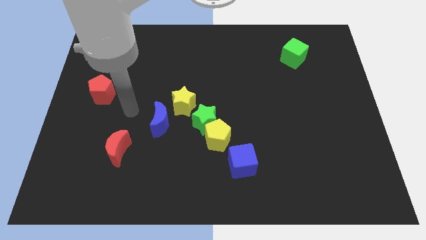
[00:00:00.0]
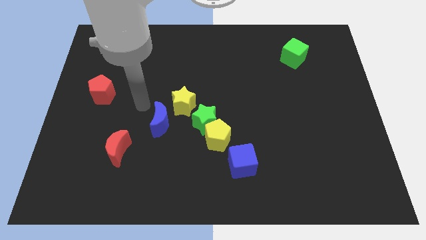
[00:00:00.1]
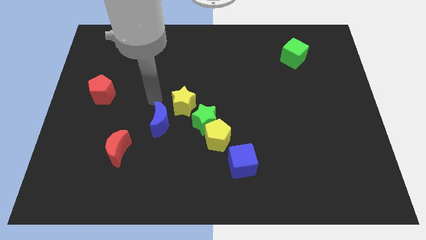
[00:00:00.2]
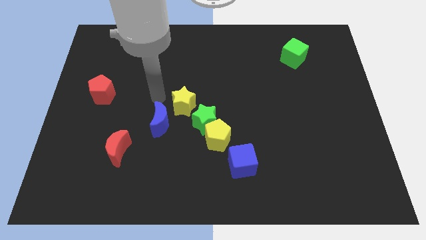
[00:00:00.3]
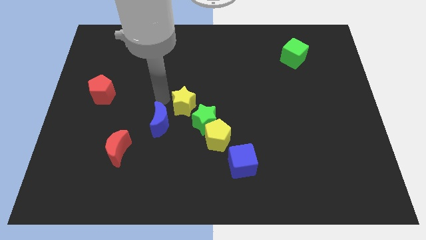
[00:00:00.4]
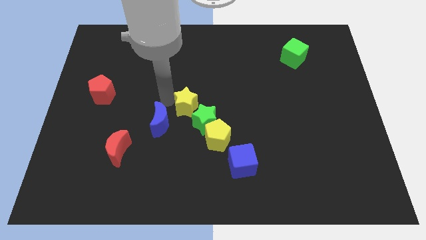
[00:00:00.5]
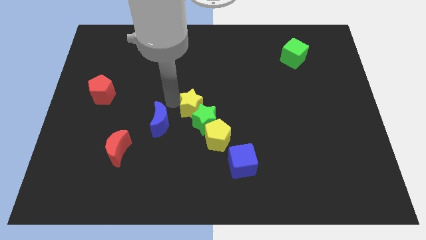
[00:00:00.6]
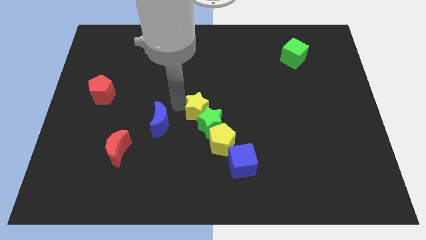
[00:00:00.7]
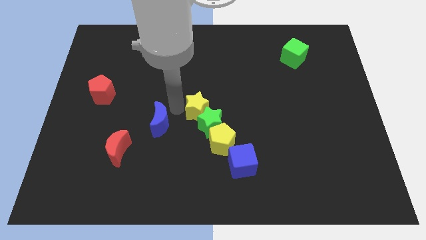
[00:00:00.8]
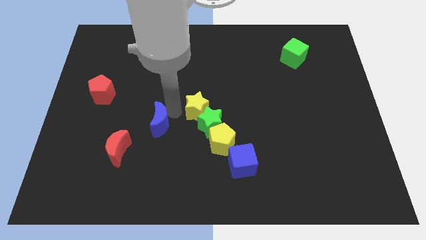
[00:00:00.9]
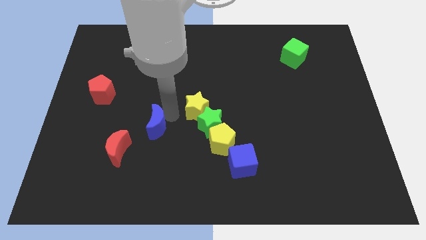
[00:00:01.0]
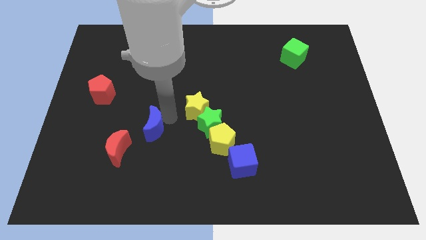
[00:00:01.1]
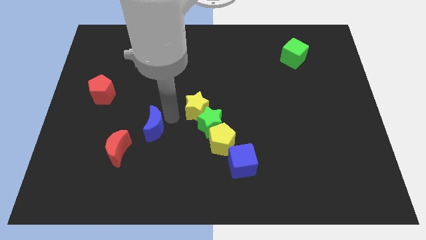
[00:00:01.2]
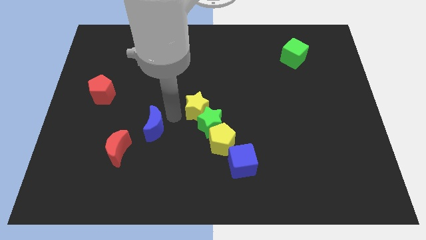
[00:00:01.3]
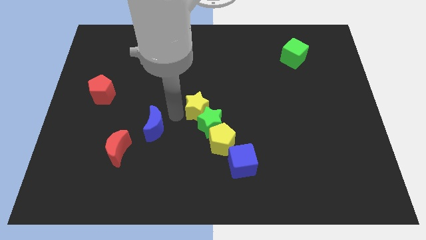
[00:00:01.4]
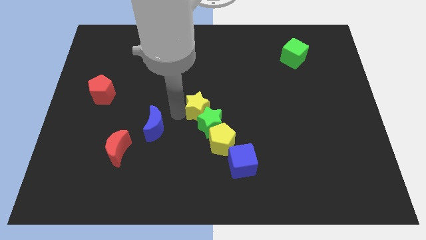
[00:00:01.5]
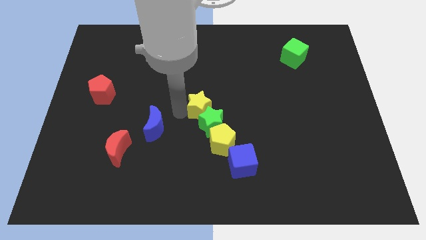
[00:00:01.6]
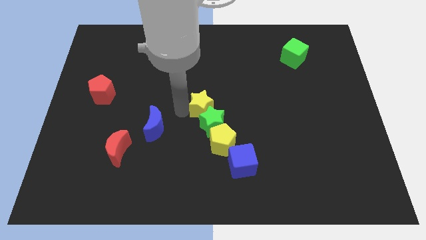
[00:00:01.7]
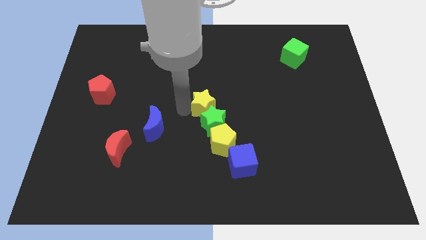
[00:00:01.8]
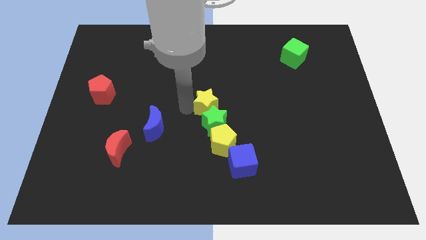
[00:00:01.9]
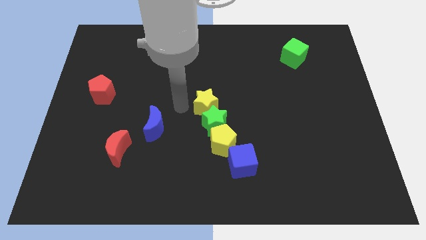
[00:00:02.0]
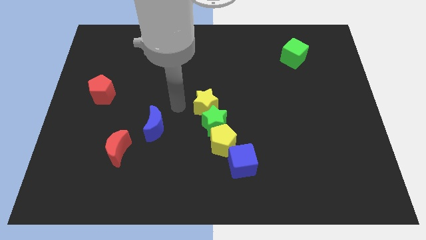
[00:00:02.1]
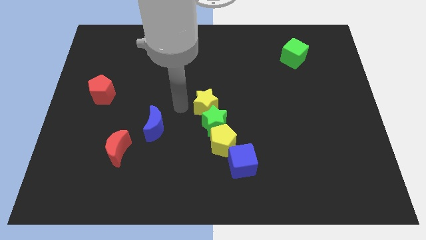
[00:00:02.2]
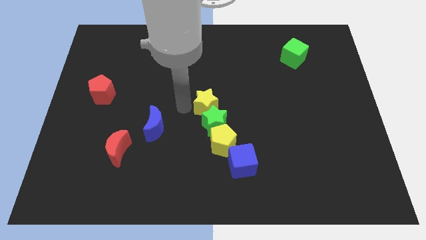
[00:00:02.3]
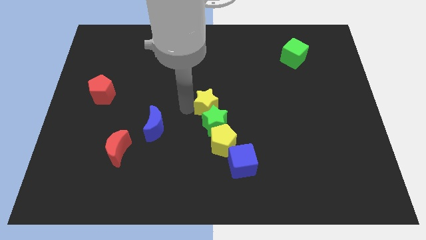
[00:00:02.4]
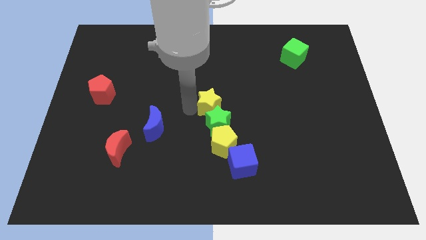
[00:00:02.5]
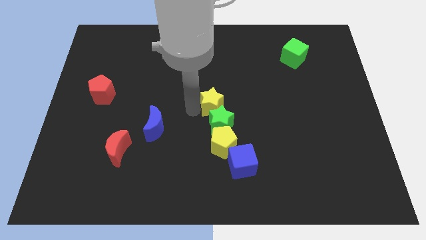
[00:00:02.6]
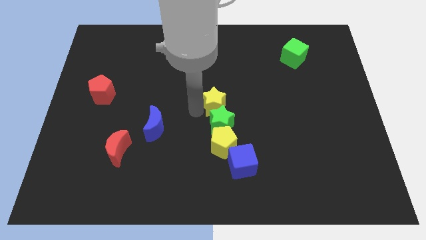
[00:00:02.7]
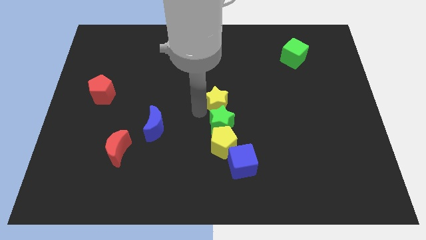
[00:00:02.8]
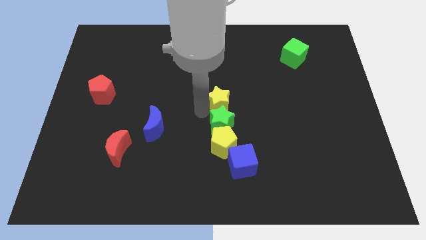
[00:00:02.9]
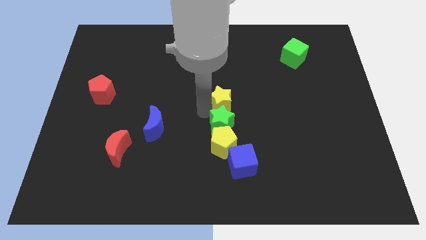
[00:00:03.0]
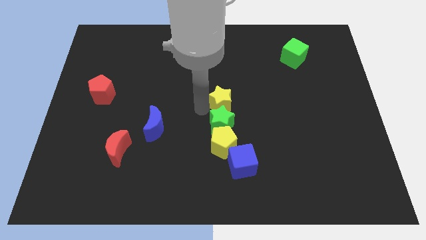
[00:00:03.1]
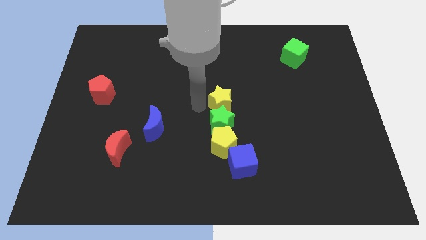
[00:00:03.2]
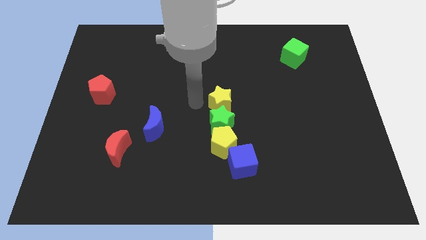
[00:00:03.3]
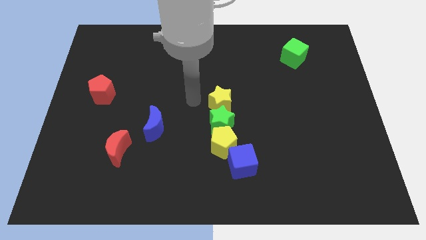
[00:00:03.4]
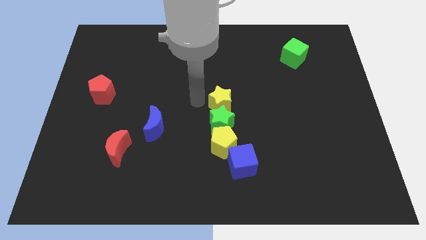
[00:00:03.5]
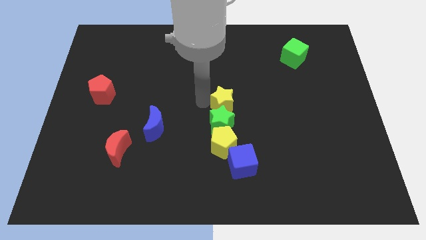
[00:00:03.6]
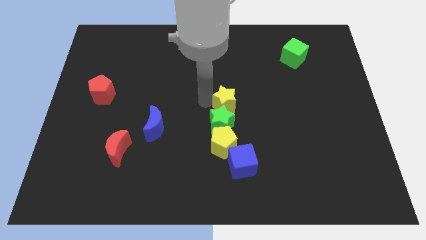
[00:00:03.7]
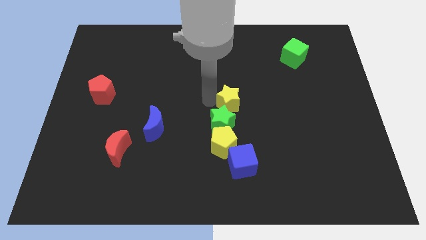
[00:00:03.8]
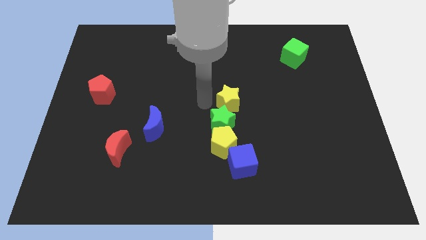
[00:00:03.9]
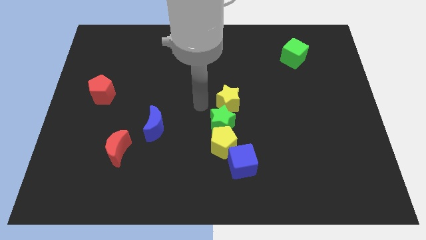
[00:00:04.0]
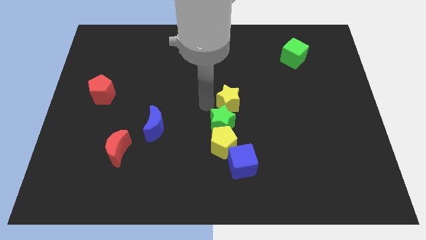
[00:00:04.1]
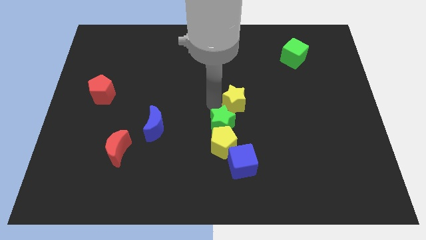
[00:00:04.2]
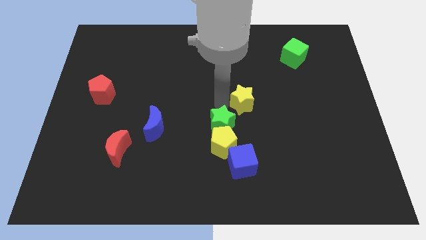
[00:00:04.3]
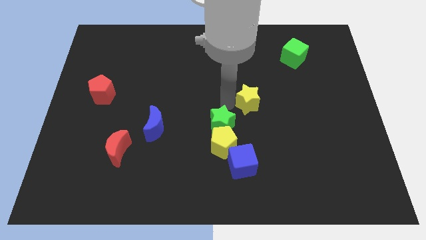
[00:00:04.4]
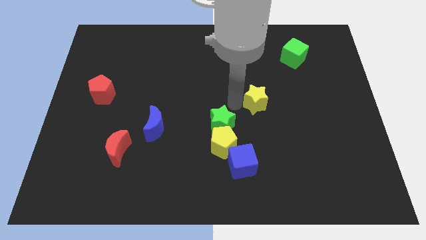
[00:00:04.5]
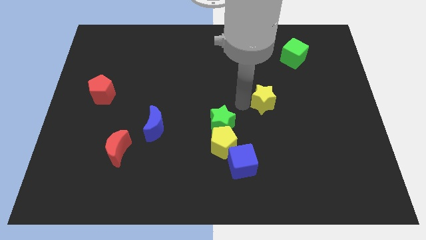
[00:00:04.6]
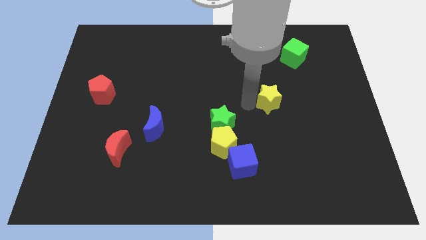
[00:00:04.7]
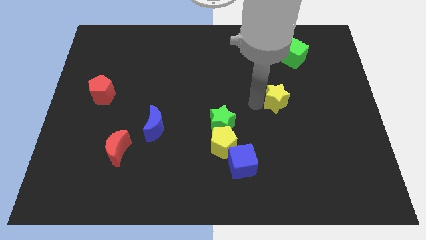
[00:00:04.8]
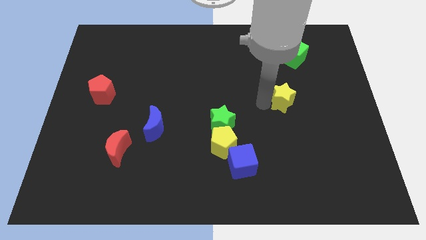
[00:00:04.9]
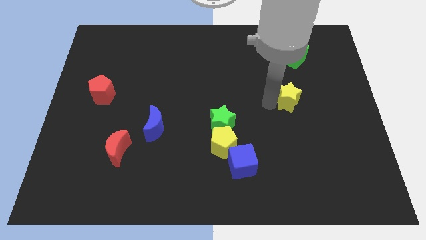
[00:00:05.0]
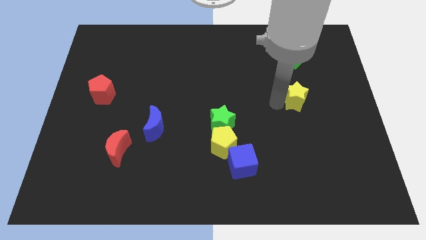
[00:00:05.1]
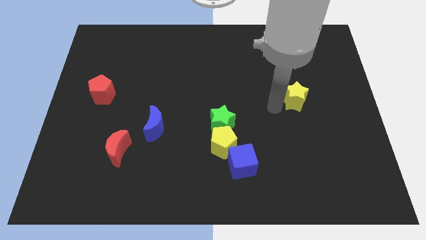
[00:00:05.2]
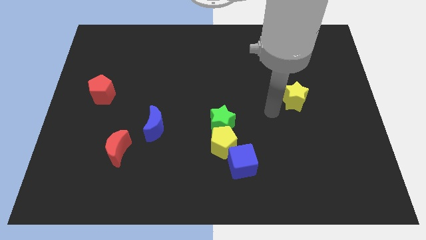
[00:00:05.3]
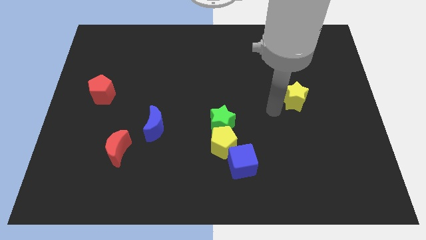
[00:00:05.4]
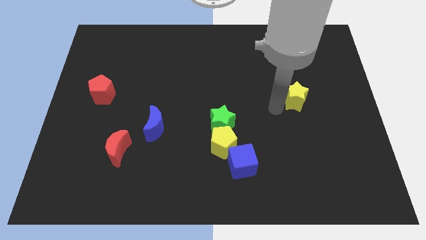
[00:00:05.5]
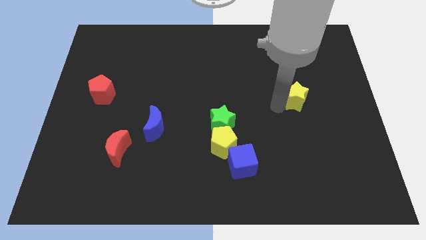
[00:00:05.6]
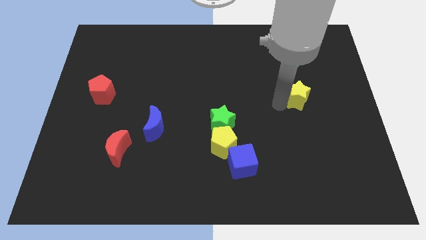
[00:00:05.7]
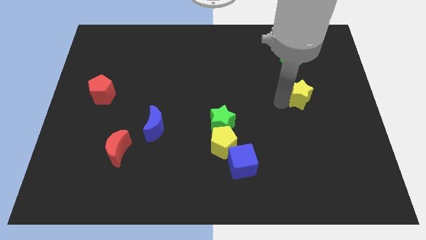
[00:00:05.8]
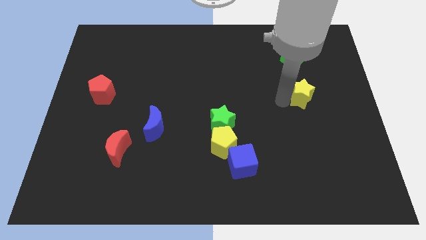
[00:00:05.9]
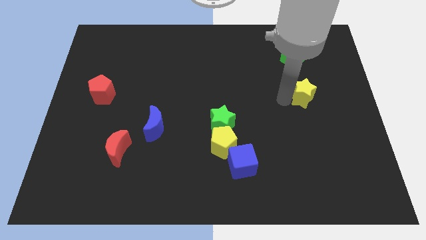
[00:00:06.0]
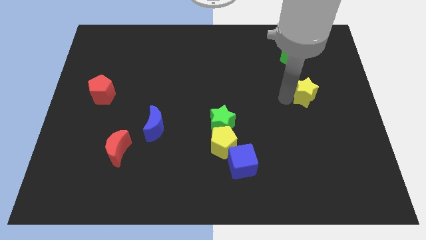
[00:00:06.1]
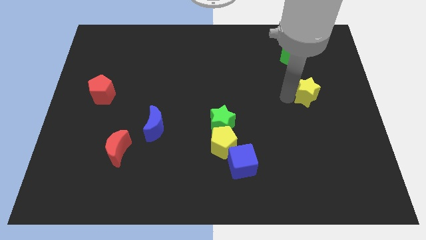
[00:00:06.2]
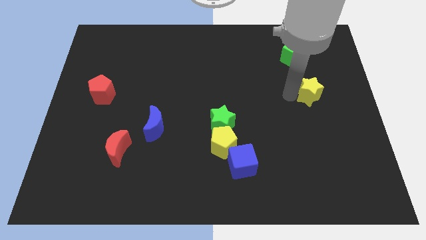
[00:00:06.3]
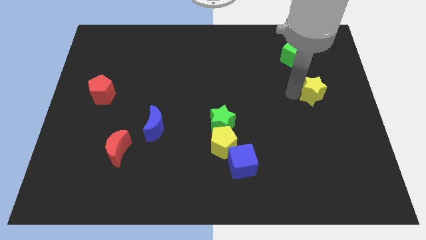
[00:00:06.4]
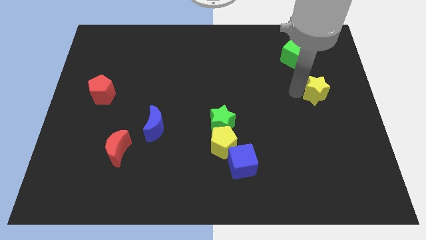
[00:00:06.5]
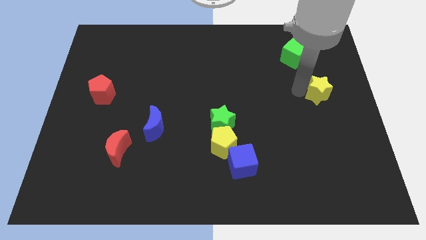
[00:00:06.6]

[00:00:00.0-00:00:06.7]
slide the yellow star to the right side of the board
